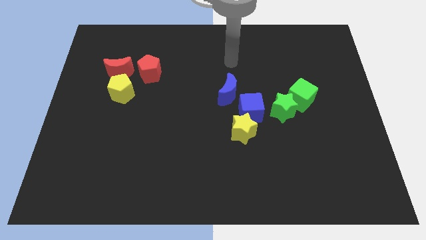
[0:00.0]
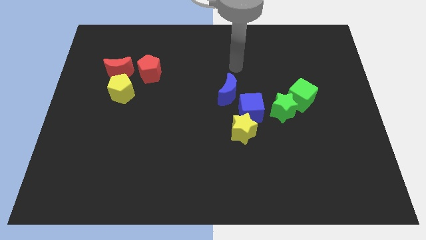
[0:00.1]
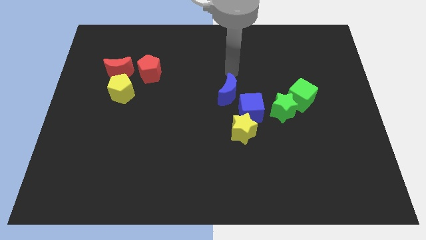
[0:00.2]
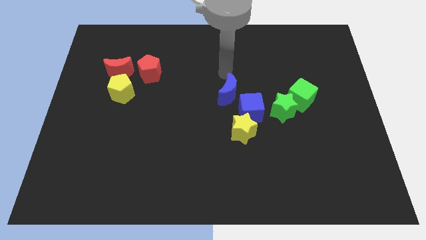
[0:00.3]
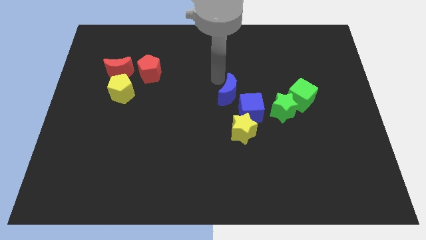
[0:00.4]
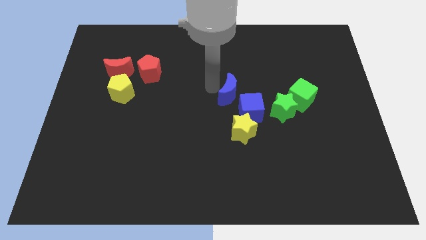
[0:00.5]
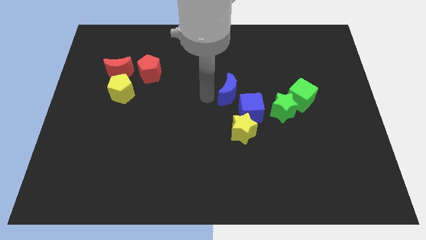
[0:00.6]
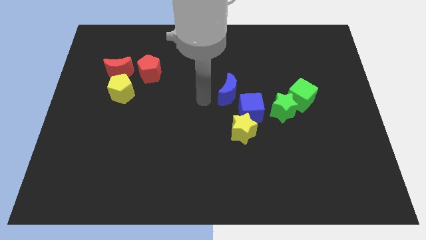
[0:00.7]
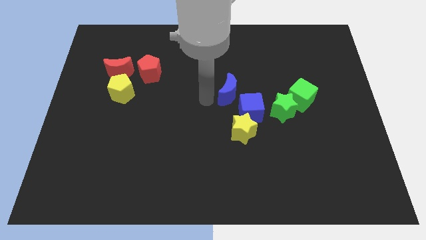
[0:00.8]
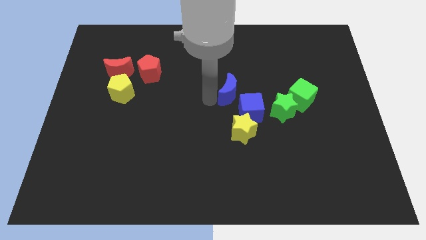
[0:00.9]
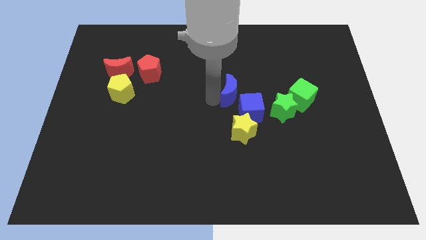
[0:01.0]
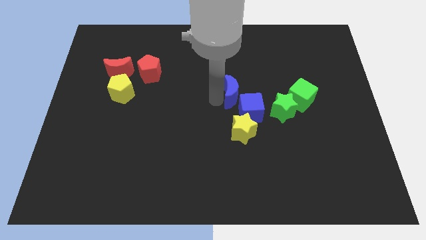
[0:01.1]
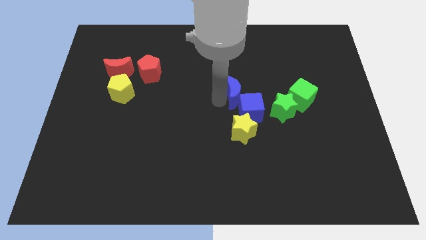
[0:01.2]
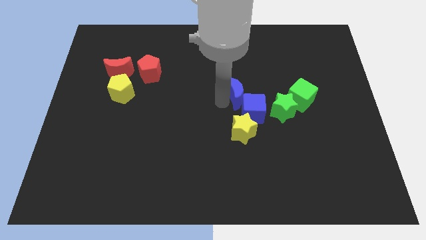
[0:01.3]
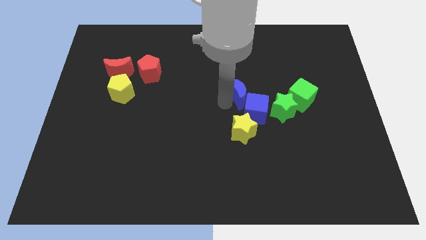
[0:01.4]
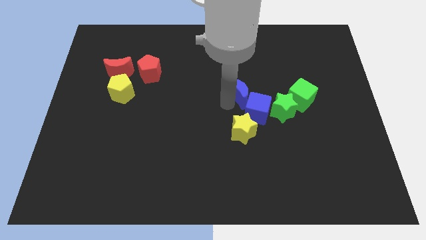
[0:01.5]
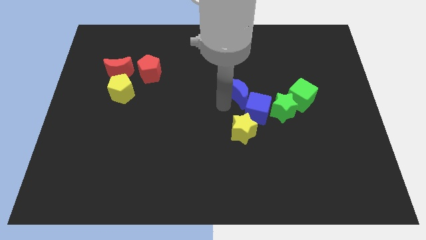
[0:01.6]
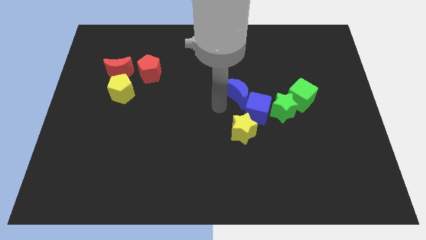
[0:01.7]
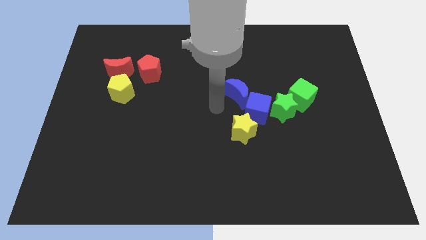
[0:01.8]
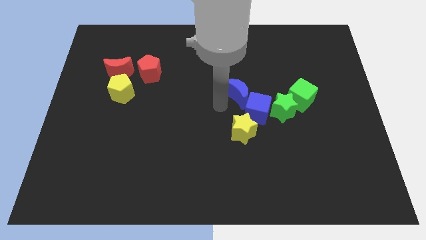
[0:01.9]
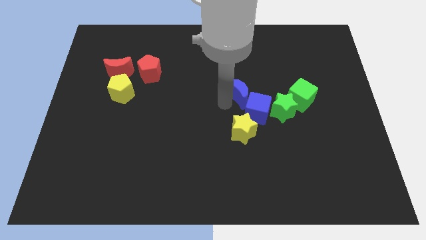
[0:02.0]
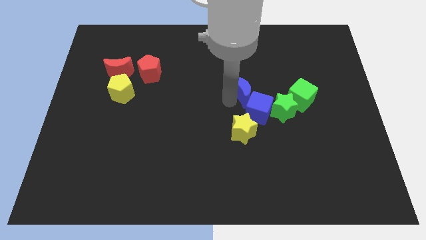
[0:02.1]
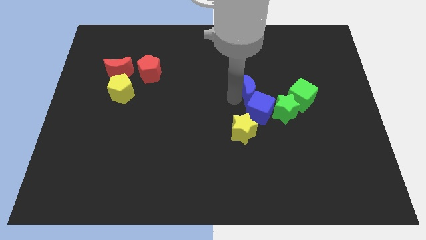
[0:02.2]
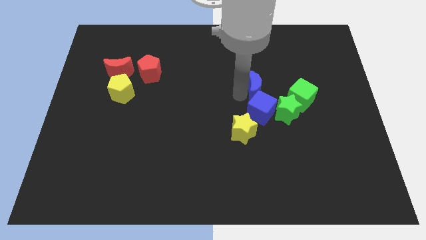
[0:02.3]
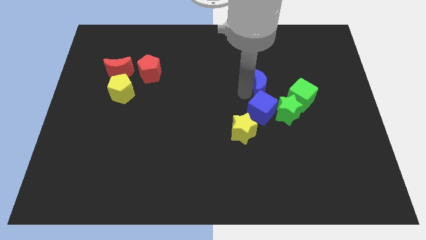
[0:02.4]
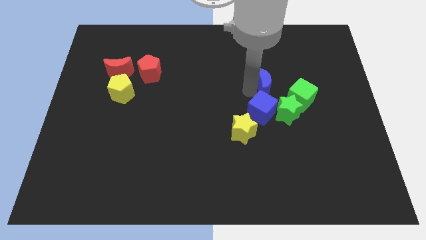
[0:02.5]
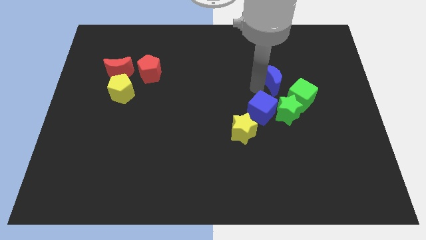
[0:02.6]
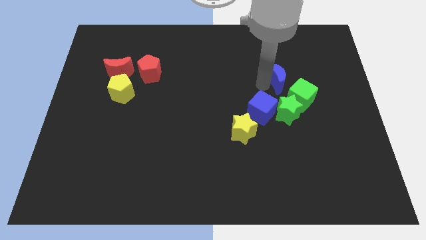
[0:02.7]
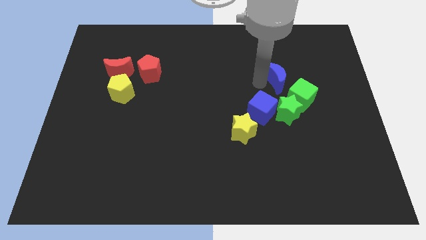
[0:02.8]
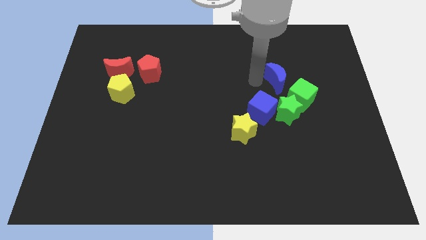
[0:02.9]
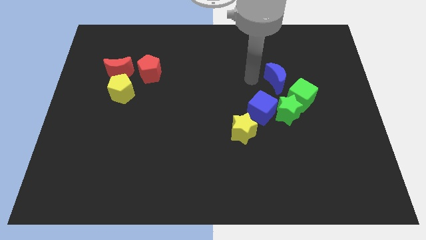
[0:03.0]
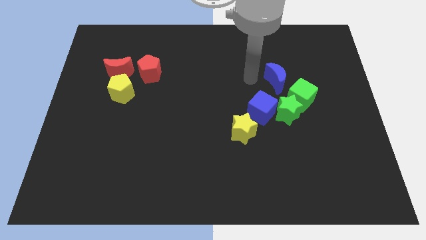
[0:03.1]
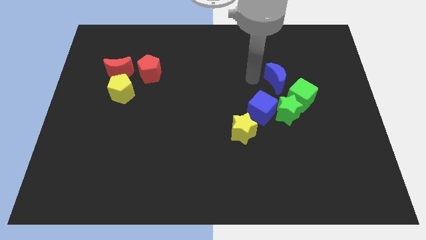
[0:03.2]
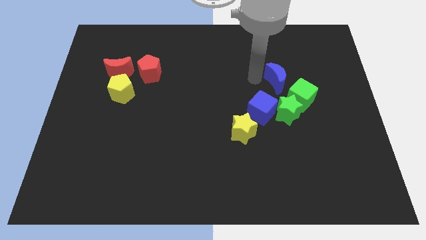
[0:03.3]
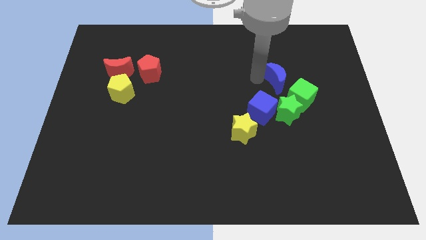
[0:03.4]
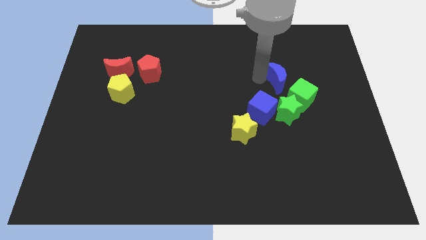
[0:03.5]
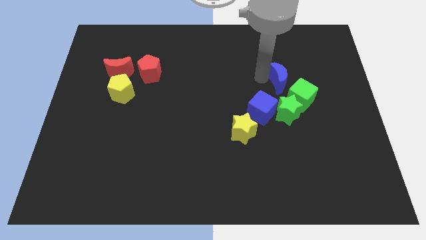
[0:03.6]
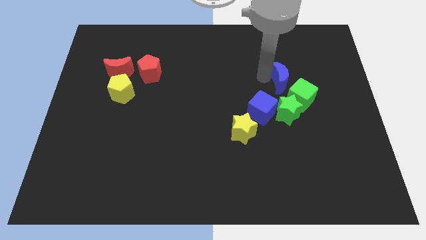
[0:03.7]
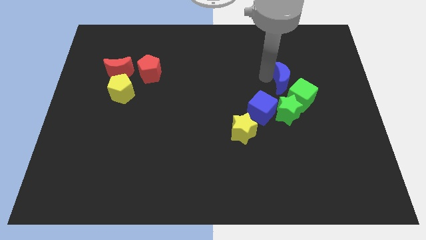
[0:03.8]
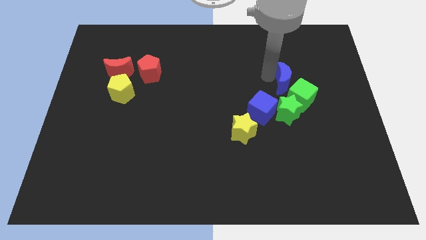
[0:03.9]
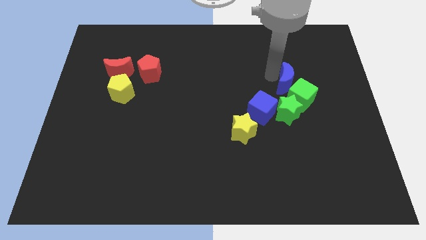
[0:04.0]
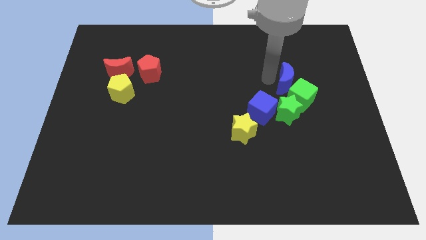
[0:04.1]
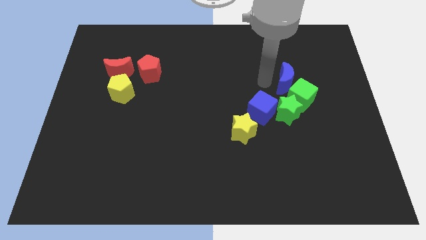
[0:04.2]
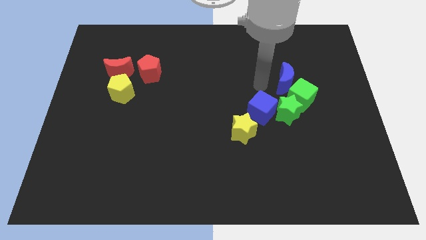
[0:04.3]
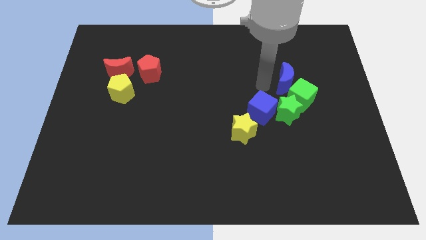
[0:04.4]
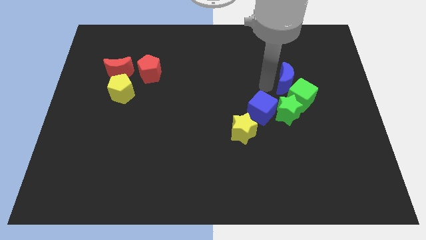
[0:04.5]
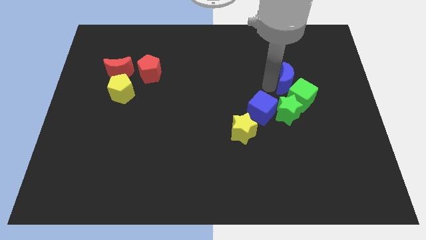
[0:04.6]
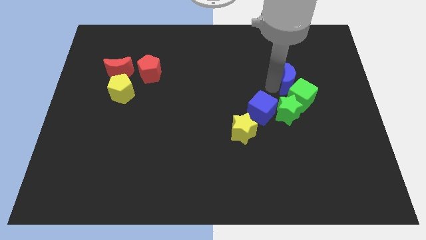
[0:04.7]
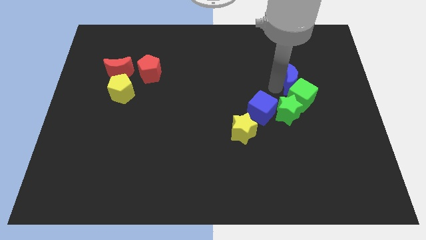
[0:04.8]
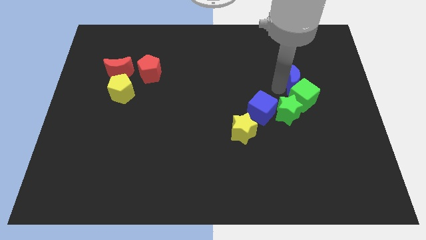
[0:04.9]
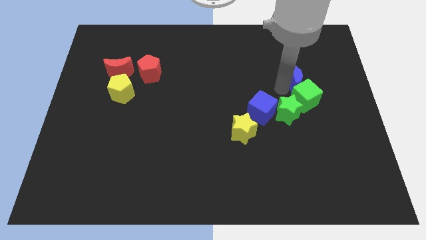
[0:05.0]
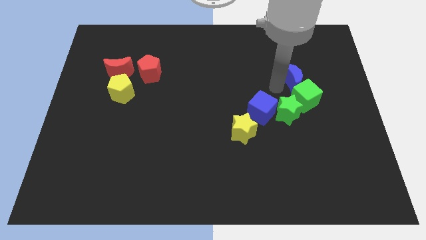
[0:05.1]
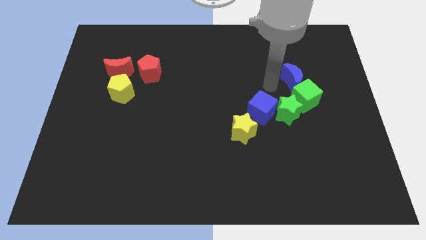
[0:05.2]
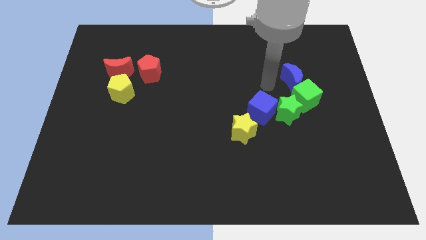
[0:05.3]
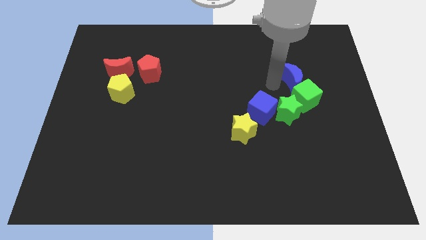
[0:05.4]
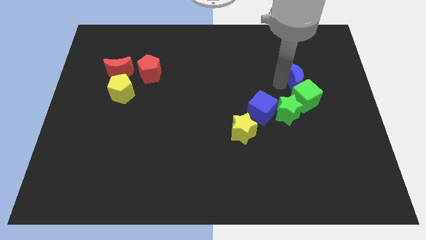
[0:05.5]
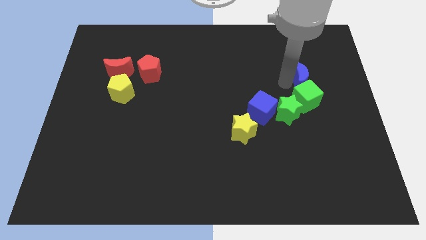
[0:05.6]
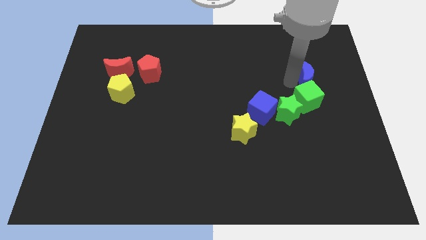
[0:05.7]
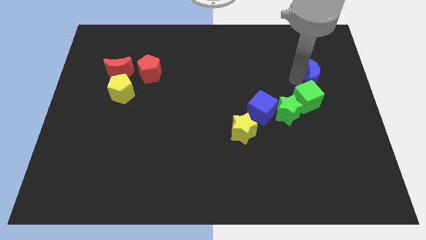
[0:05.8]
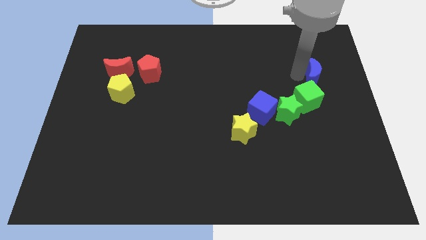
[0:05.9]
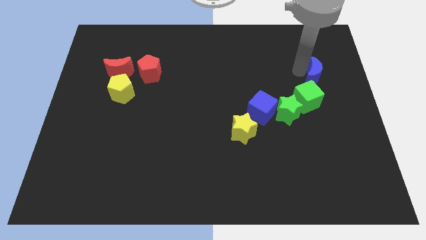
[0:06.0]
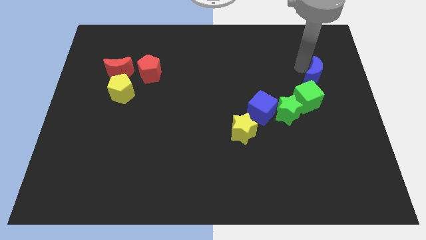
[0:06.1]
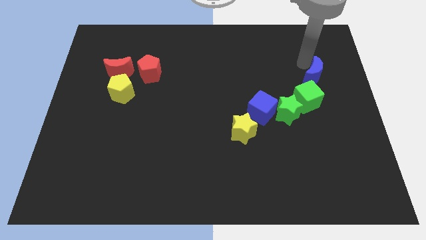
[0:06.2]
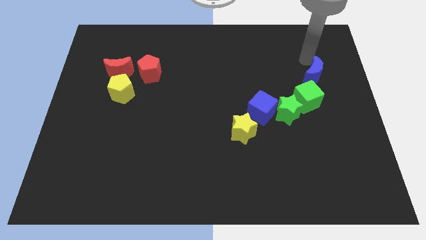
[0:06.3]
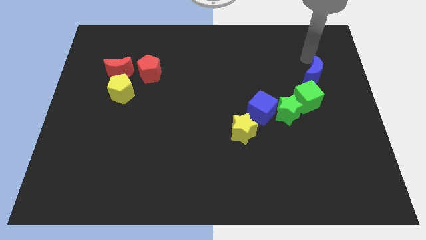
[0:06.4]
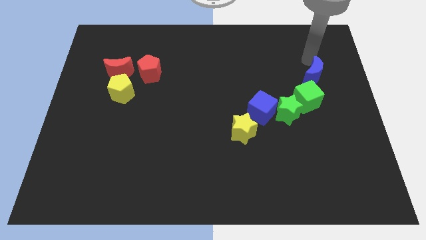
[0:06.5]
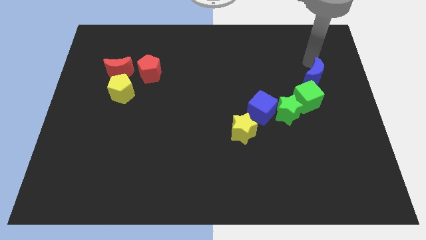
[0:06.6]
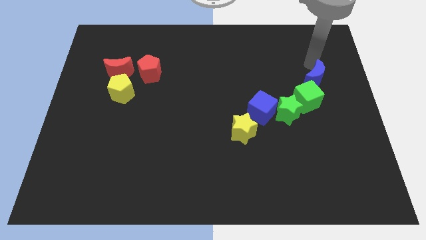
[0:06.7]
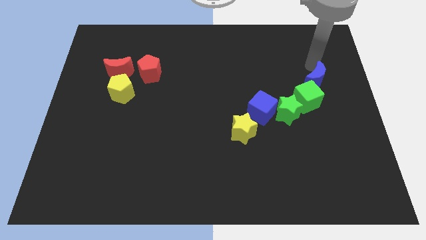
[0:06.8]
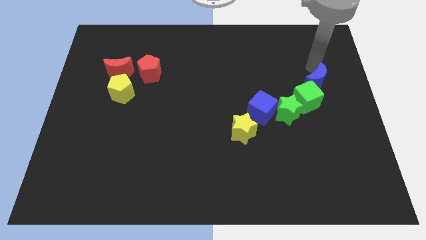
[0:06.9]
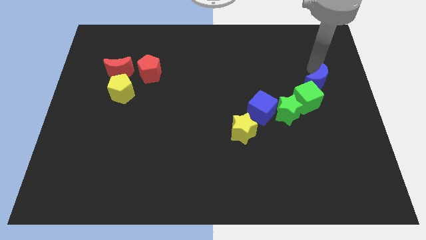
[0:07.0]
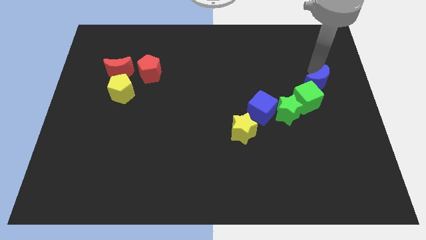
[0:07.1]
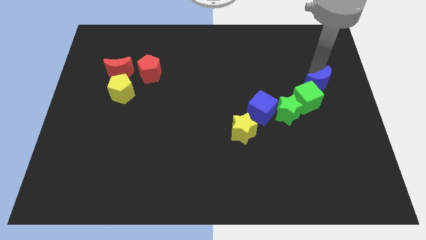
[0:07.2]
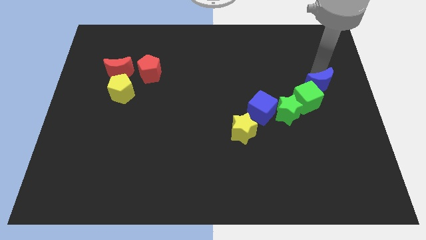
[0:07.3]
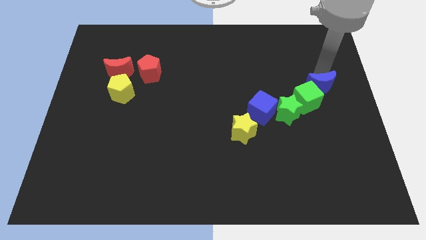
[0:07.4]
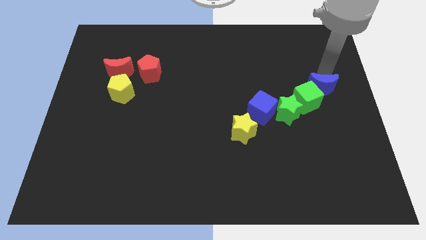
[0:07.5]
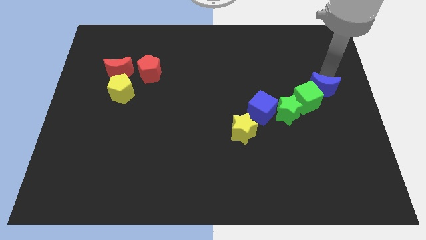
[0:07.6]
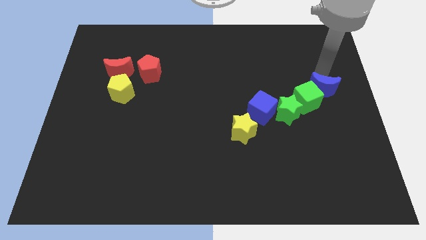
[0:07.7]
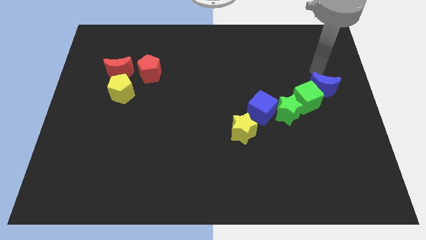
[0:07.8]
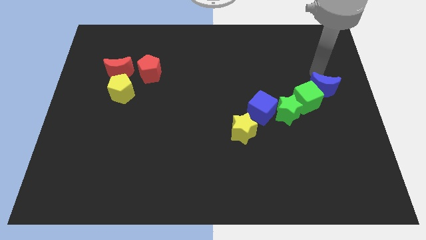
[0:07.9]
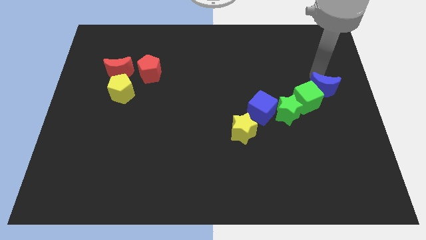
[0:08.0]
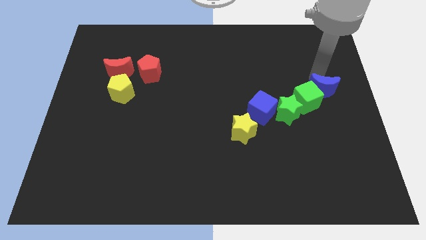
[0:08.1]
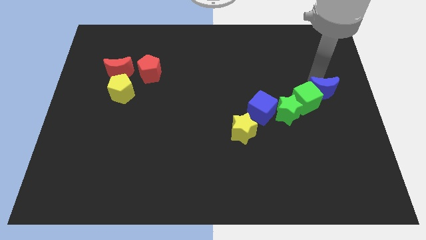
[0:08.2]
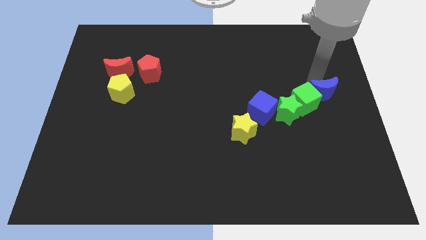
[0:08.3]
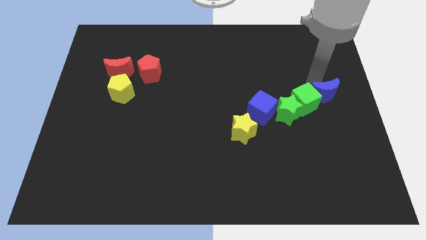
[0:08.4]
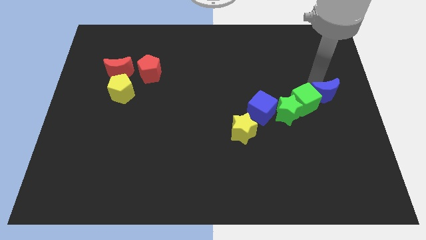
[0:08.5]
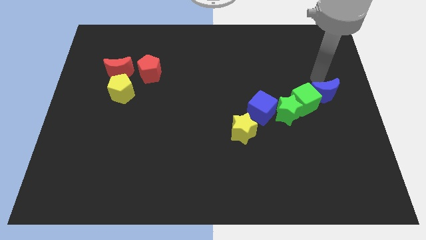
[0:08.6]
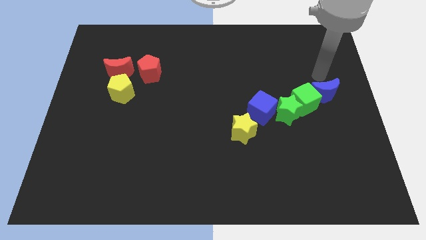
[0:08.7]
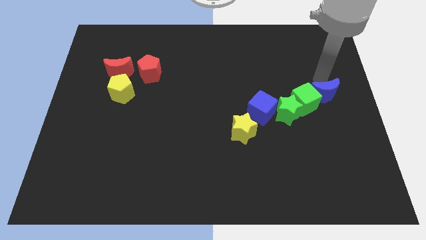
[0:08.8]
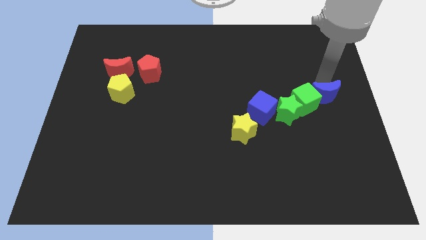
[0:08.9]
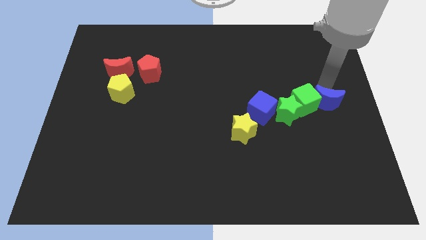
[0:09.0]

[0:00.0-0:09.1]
put the blue moon diagonally down and to the right of the green cube
